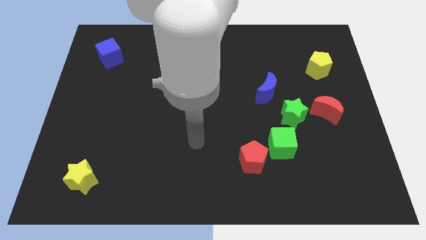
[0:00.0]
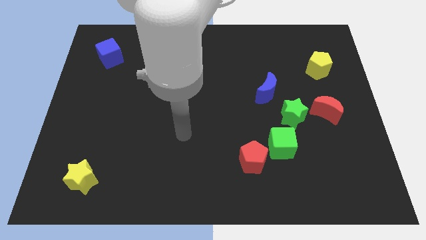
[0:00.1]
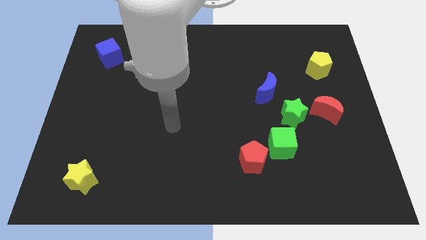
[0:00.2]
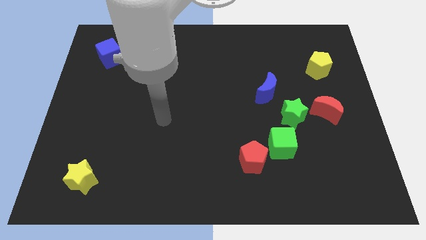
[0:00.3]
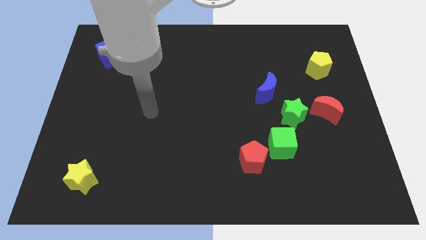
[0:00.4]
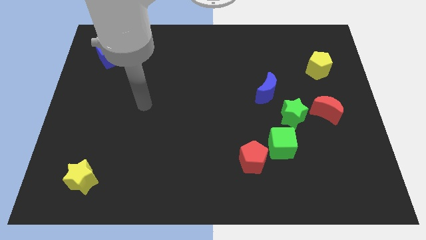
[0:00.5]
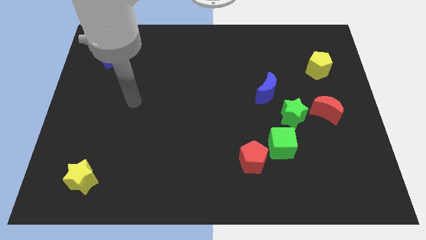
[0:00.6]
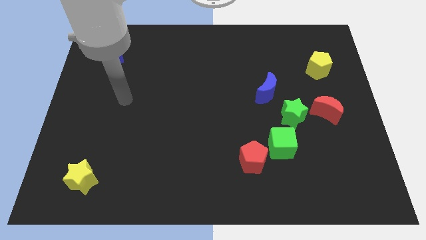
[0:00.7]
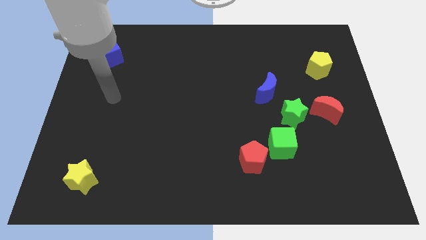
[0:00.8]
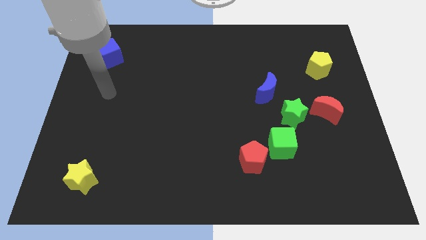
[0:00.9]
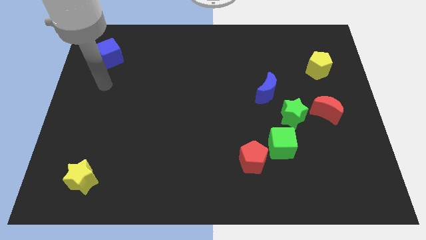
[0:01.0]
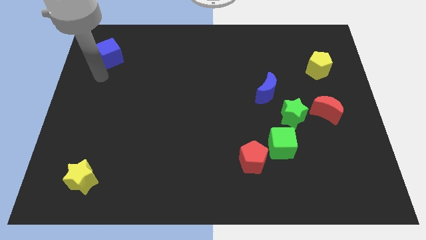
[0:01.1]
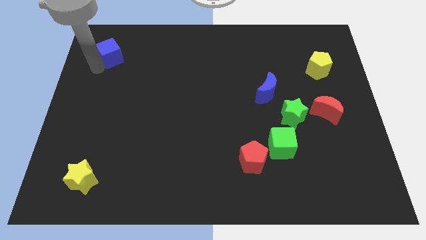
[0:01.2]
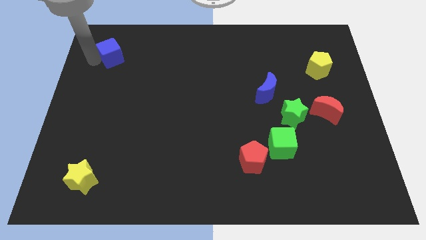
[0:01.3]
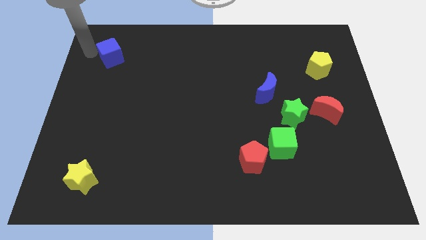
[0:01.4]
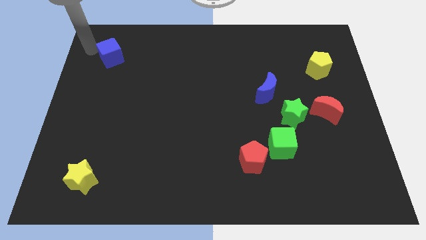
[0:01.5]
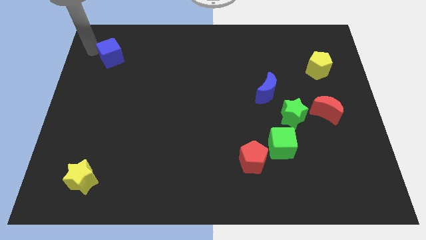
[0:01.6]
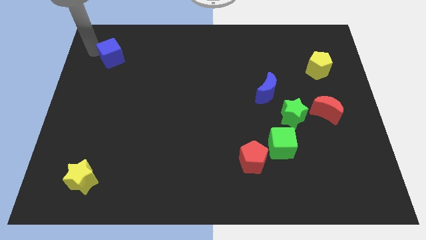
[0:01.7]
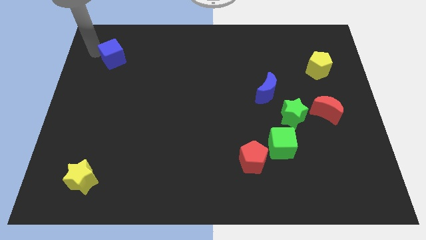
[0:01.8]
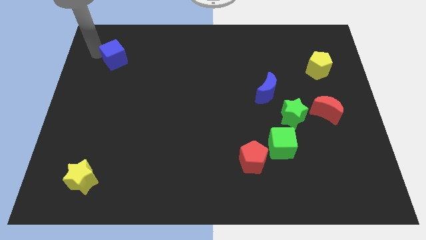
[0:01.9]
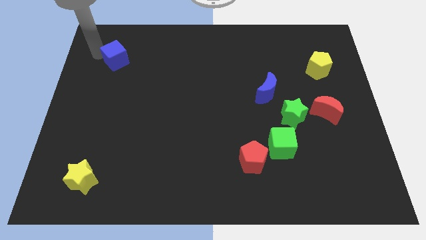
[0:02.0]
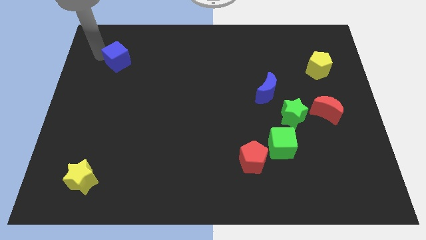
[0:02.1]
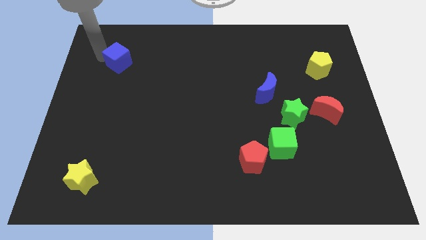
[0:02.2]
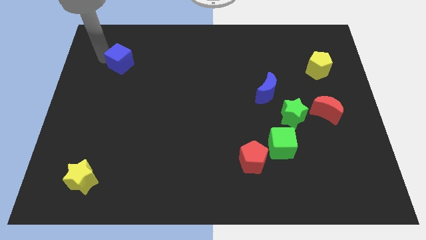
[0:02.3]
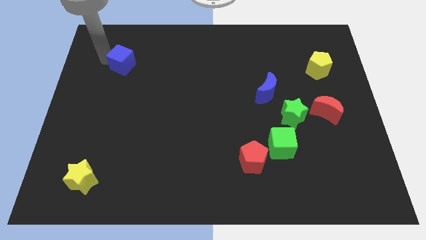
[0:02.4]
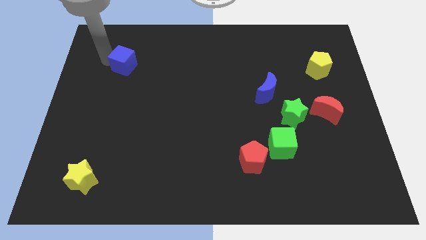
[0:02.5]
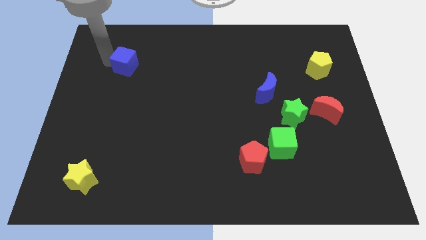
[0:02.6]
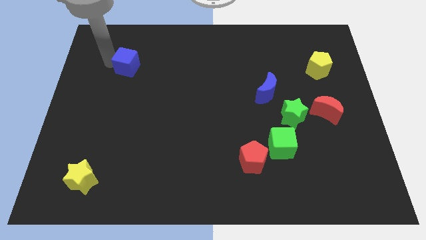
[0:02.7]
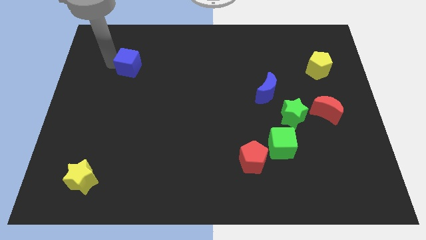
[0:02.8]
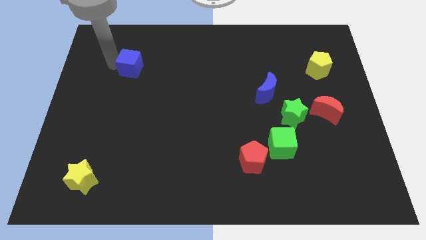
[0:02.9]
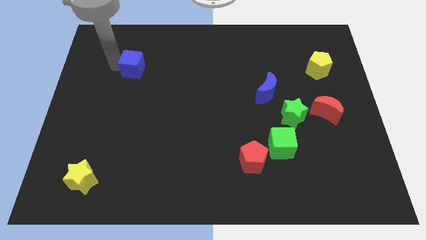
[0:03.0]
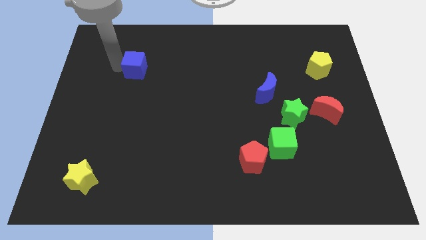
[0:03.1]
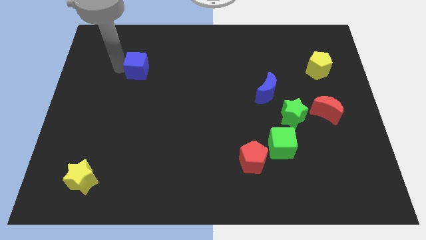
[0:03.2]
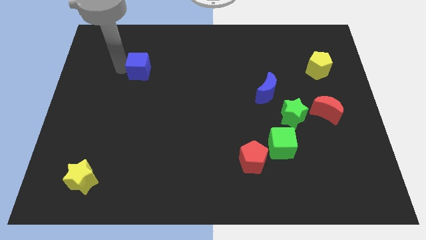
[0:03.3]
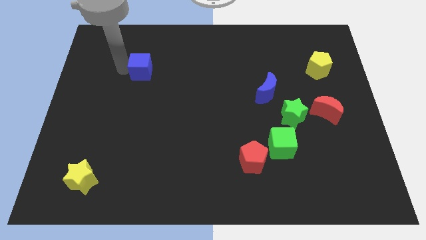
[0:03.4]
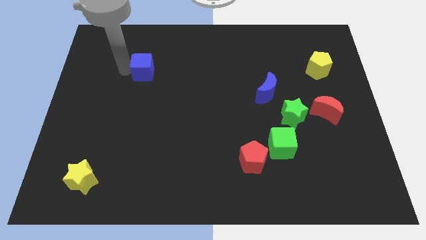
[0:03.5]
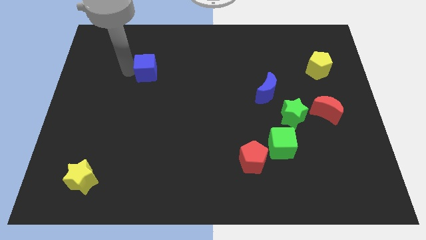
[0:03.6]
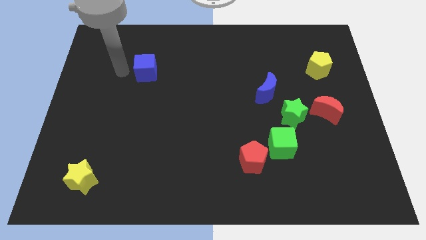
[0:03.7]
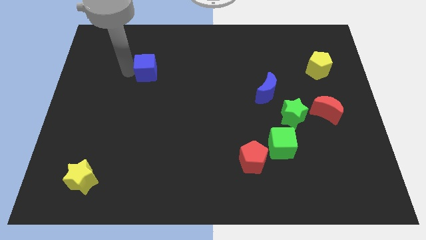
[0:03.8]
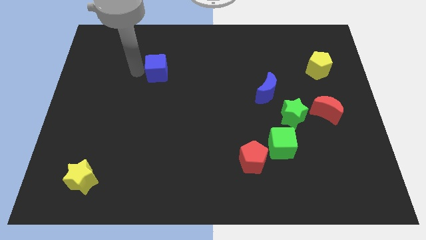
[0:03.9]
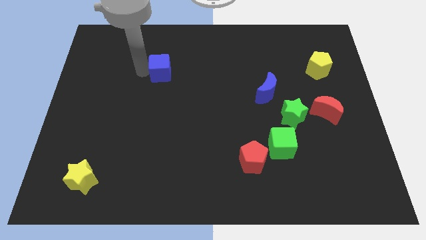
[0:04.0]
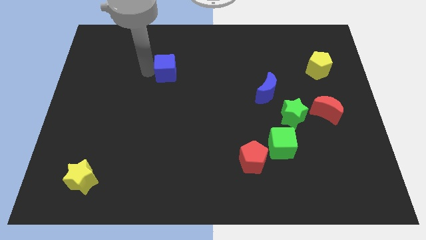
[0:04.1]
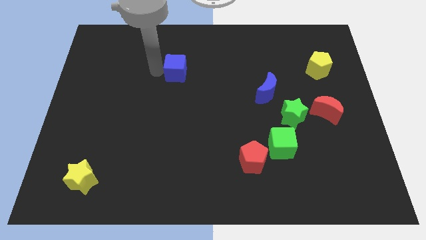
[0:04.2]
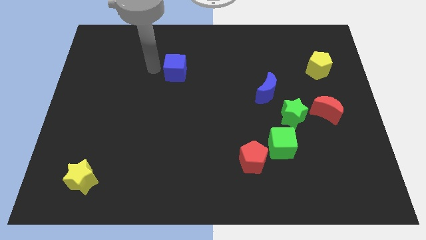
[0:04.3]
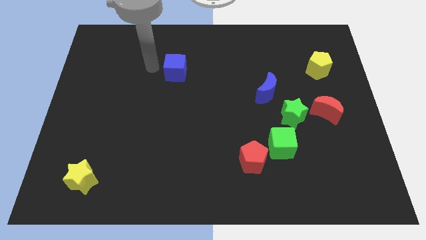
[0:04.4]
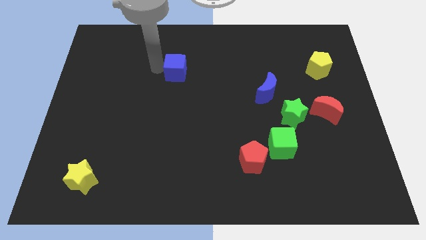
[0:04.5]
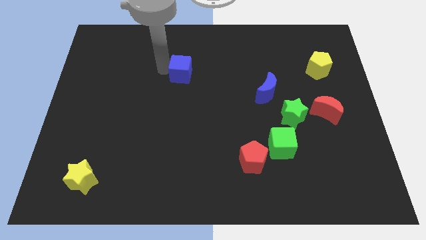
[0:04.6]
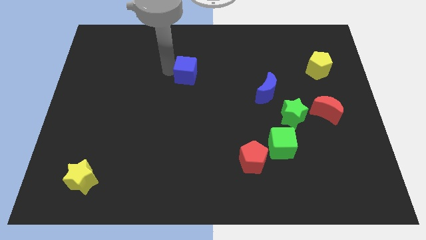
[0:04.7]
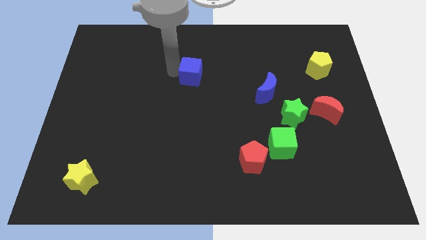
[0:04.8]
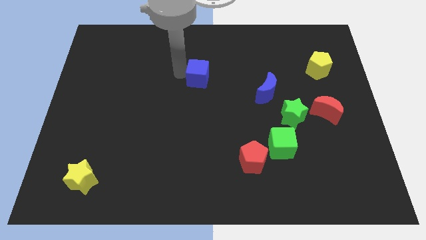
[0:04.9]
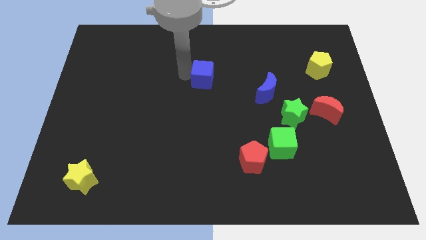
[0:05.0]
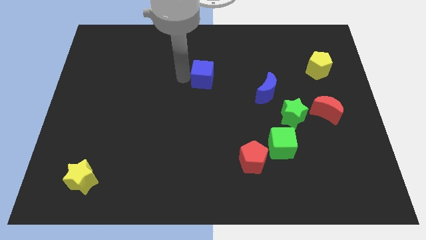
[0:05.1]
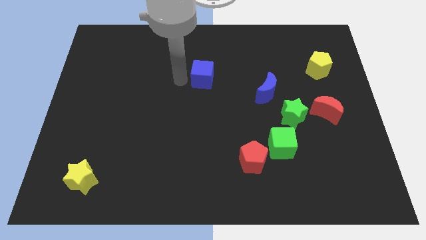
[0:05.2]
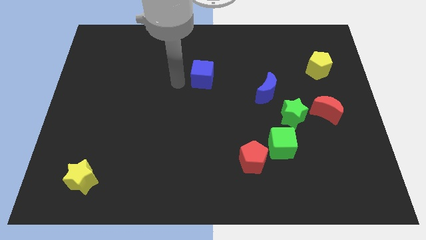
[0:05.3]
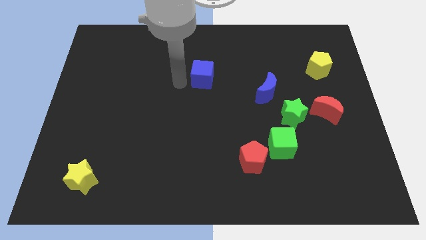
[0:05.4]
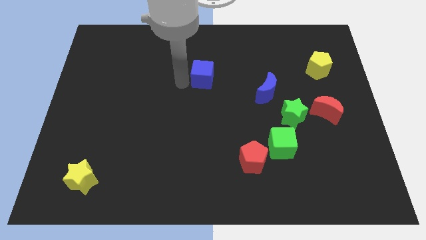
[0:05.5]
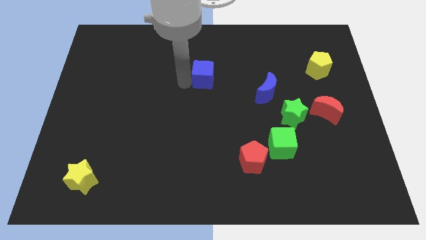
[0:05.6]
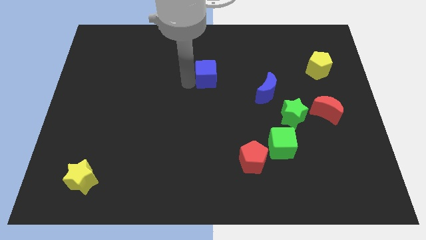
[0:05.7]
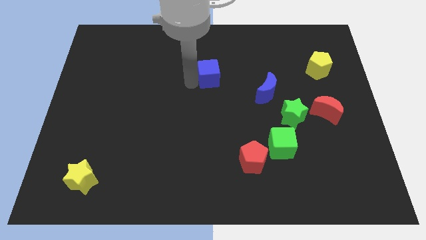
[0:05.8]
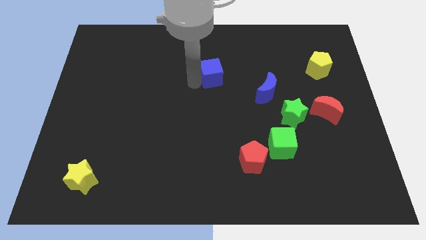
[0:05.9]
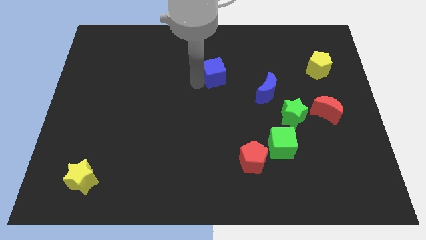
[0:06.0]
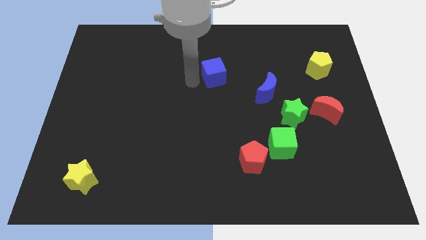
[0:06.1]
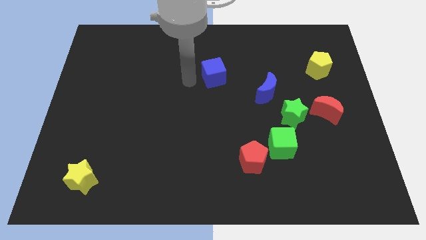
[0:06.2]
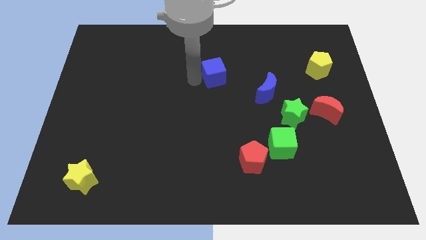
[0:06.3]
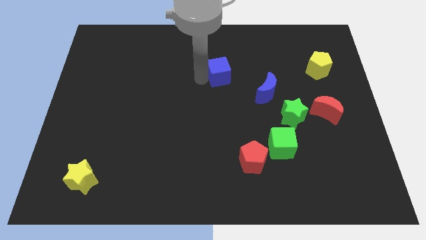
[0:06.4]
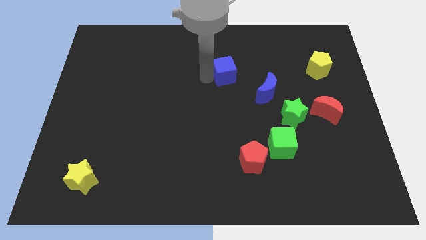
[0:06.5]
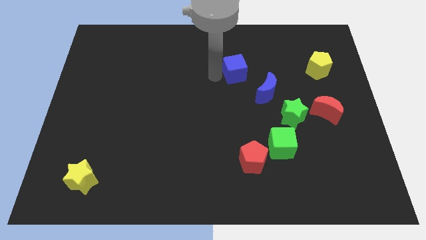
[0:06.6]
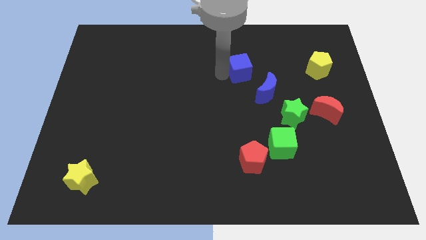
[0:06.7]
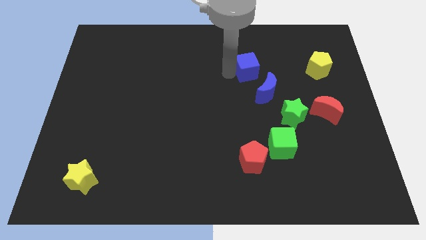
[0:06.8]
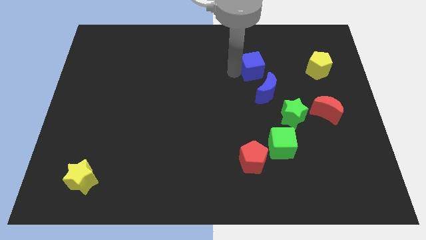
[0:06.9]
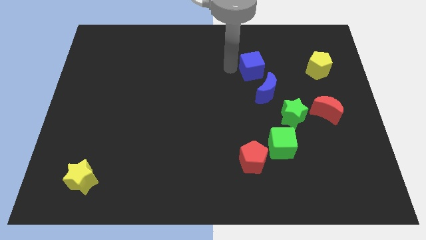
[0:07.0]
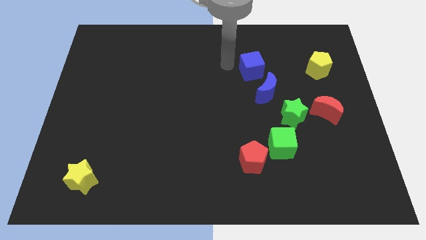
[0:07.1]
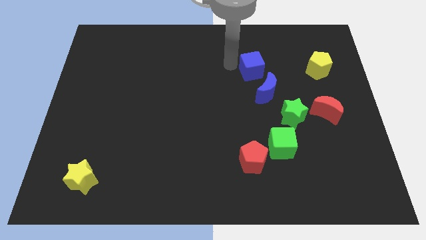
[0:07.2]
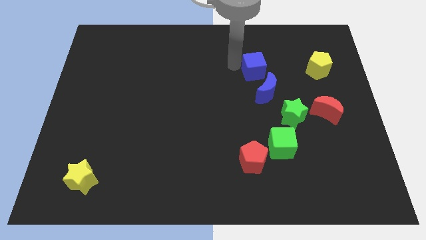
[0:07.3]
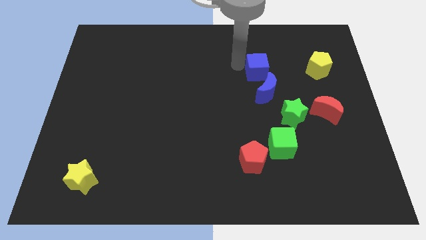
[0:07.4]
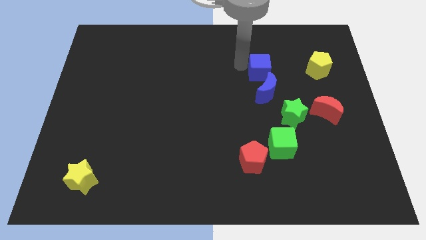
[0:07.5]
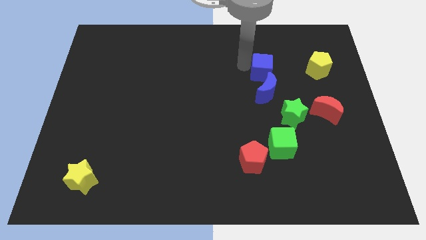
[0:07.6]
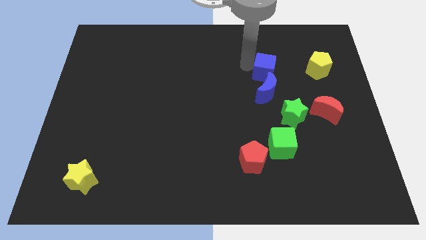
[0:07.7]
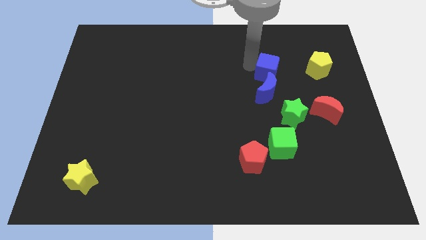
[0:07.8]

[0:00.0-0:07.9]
slide the blue cube to the top right side of the blue moon
